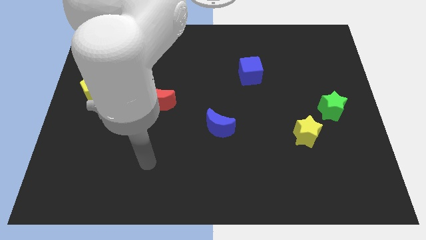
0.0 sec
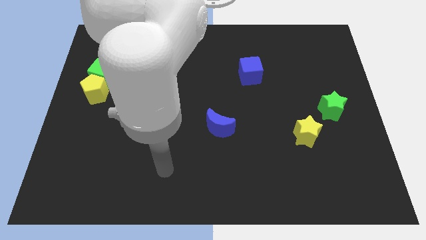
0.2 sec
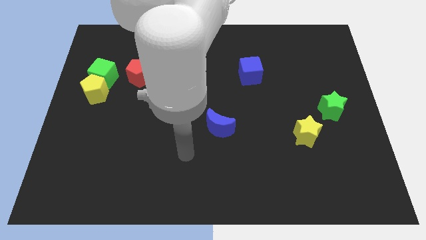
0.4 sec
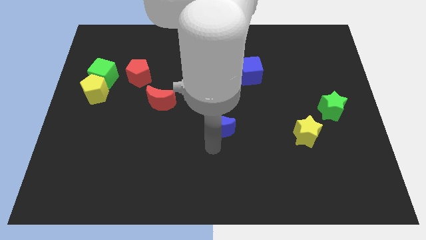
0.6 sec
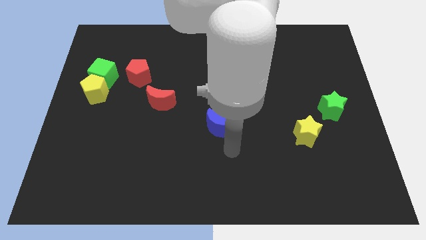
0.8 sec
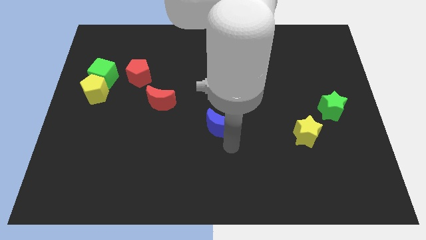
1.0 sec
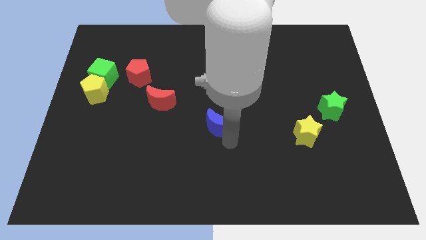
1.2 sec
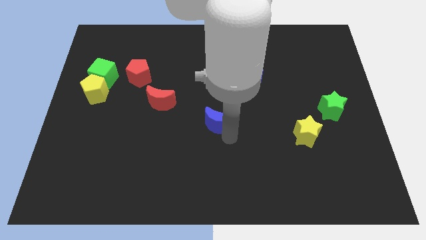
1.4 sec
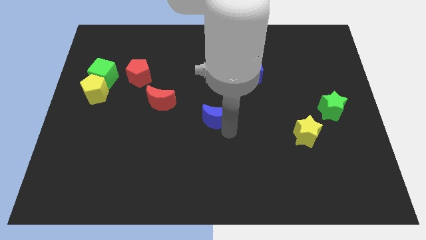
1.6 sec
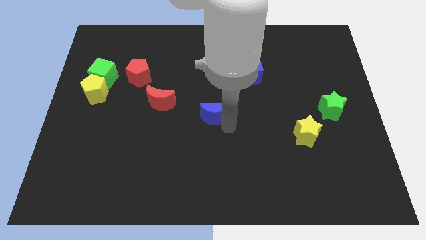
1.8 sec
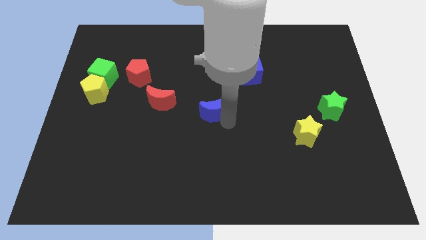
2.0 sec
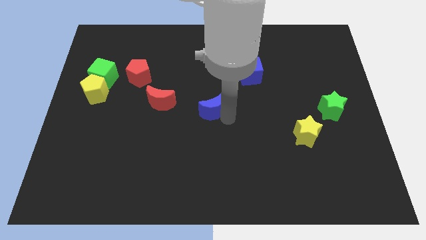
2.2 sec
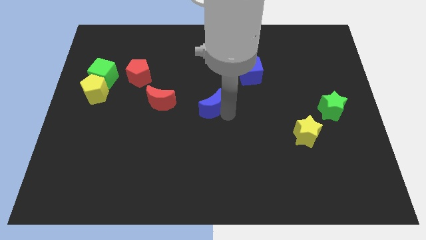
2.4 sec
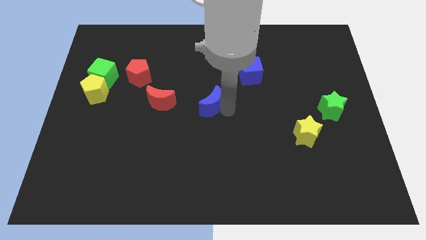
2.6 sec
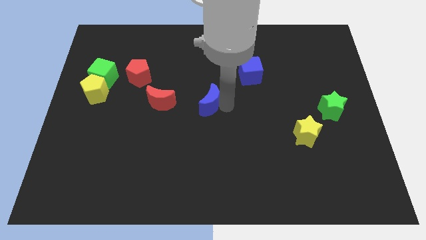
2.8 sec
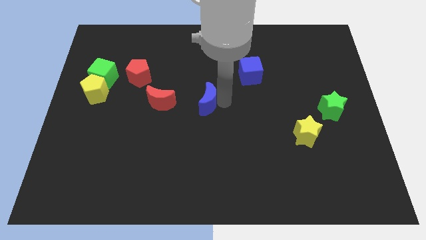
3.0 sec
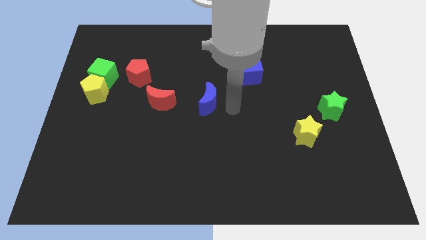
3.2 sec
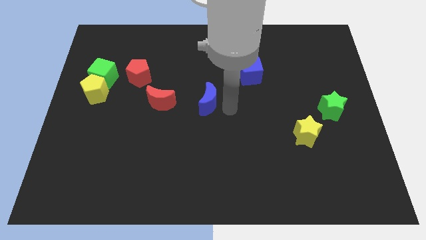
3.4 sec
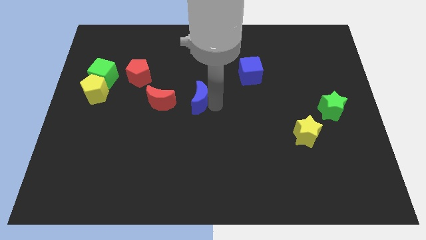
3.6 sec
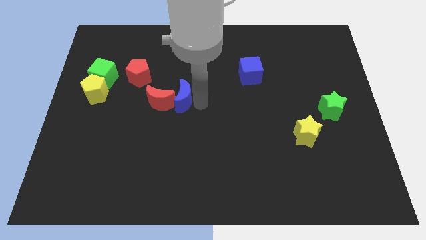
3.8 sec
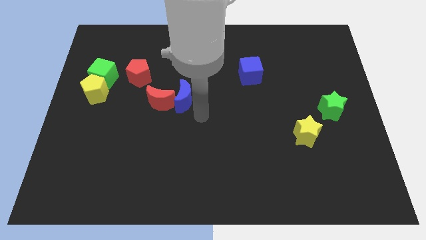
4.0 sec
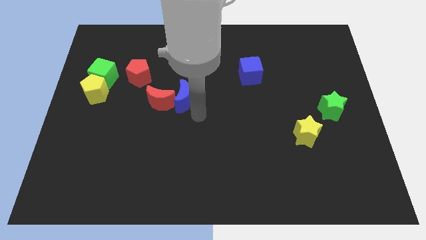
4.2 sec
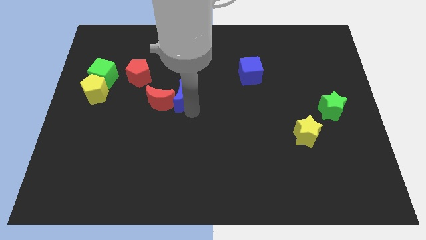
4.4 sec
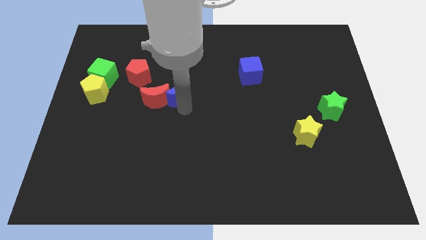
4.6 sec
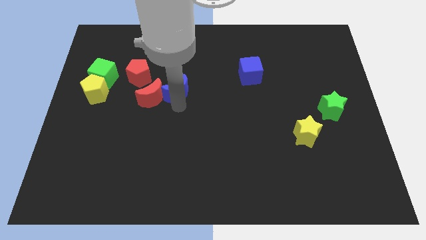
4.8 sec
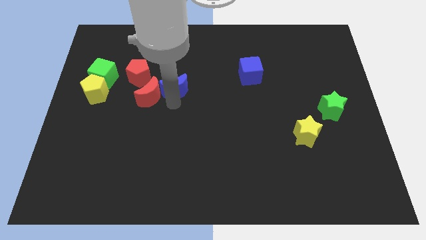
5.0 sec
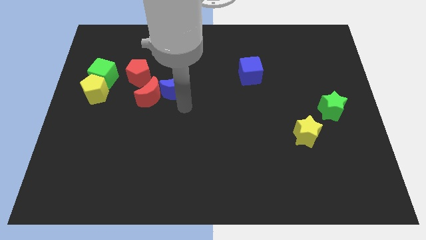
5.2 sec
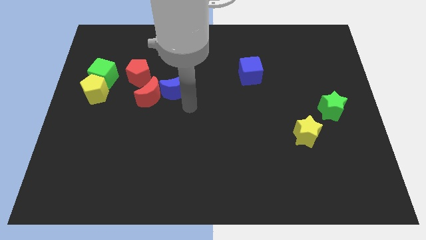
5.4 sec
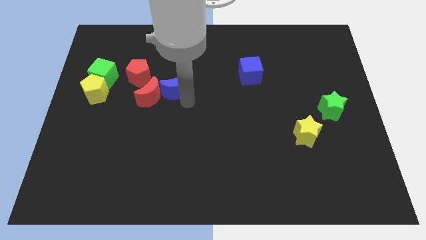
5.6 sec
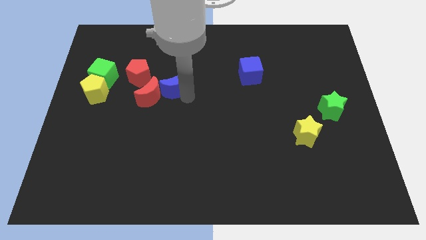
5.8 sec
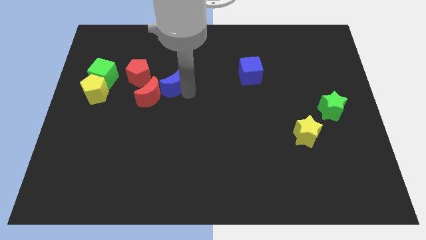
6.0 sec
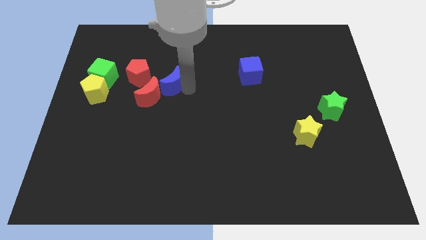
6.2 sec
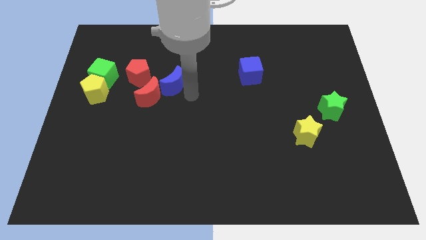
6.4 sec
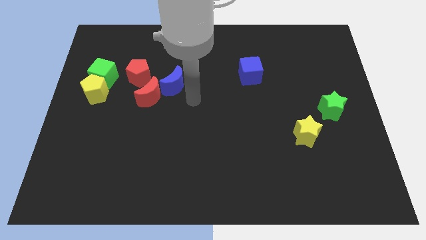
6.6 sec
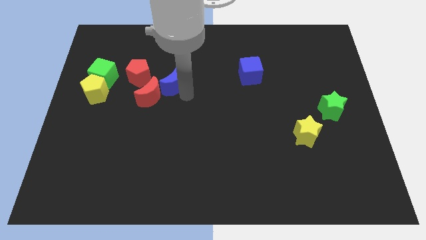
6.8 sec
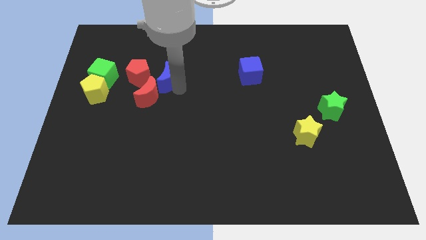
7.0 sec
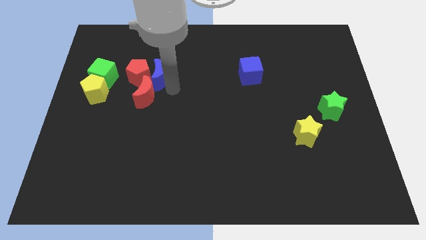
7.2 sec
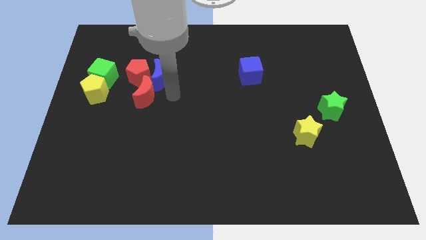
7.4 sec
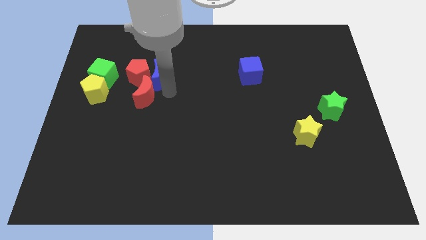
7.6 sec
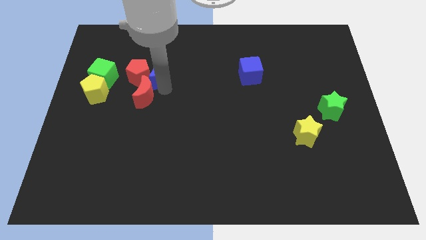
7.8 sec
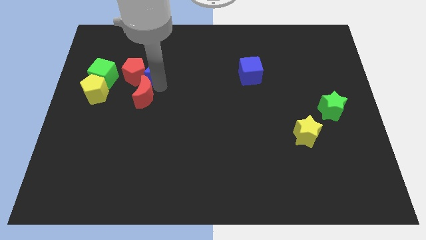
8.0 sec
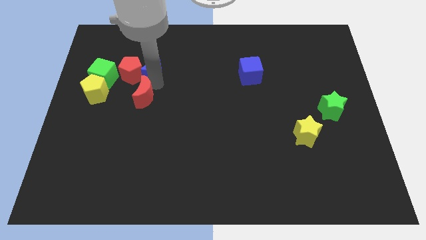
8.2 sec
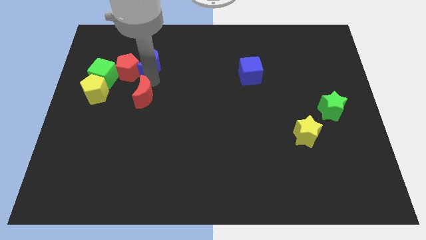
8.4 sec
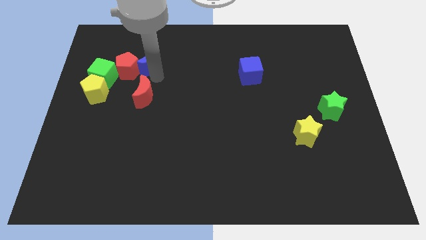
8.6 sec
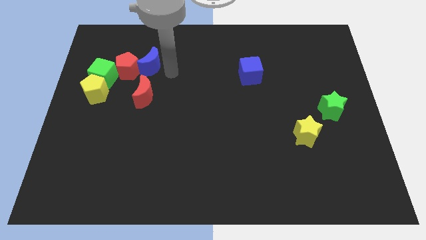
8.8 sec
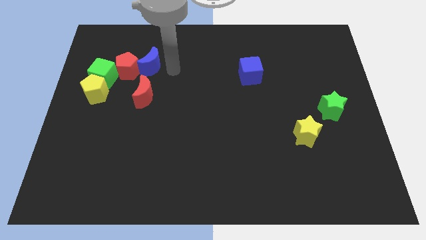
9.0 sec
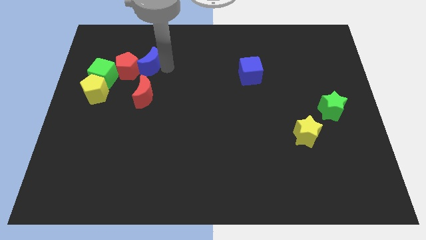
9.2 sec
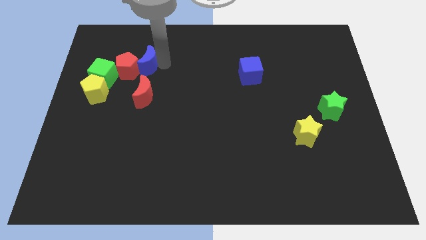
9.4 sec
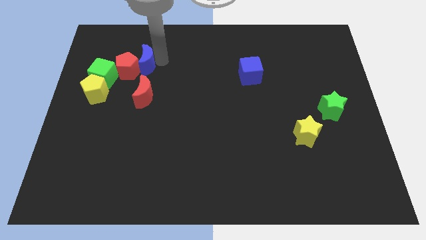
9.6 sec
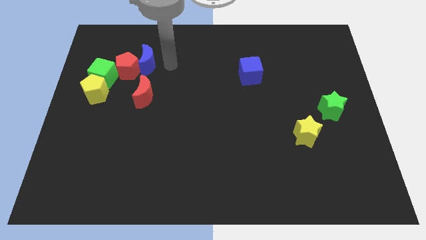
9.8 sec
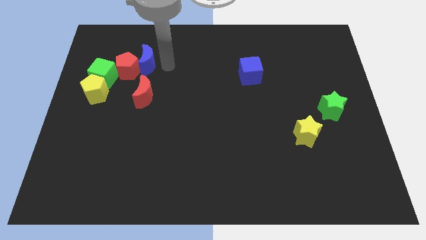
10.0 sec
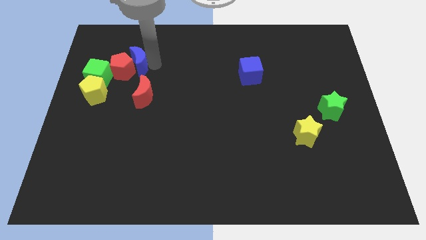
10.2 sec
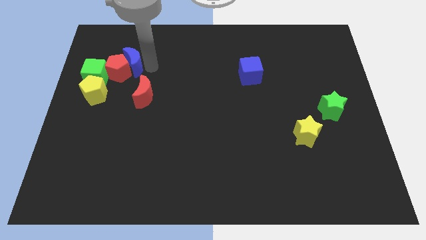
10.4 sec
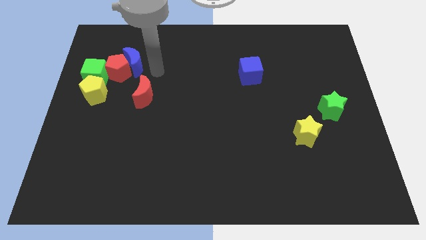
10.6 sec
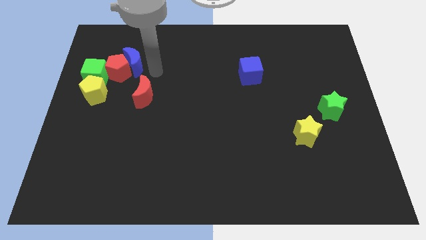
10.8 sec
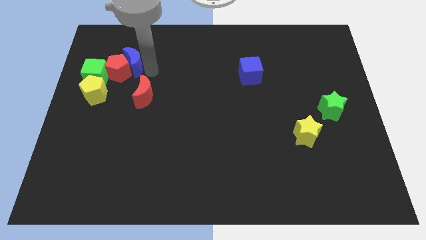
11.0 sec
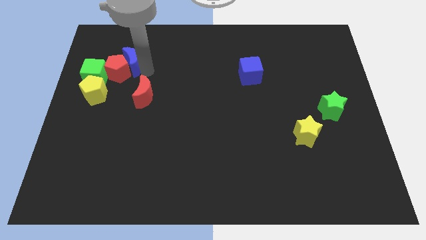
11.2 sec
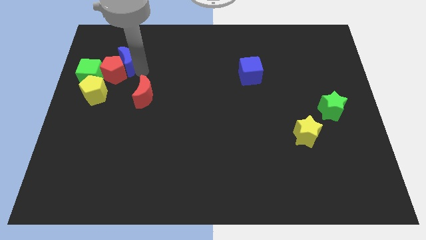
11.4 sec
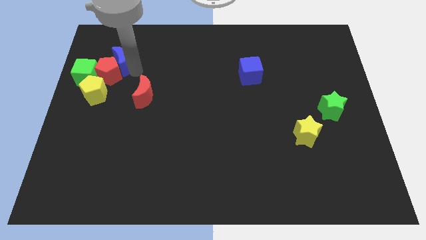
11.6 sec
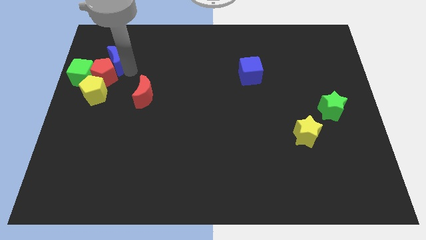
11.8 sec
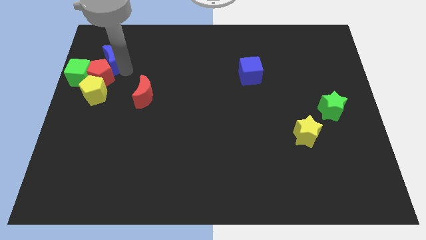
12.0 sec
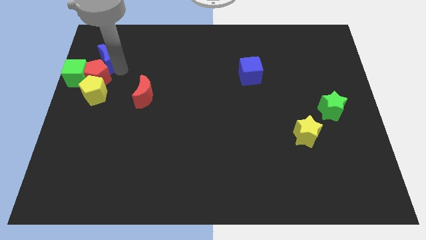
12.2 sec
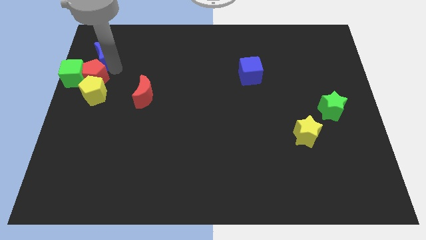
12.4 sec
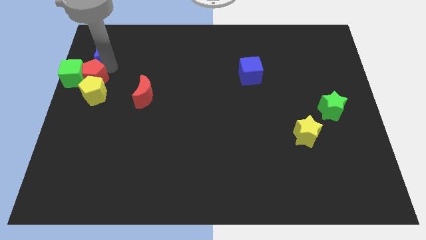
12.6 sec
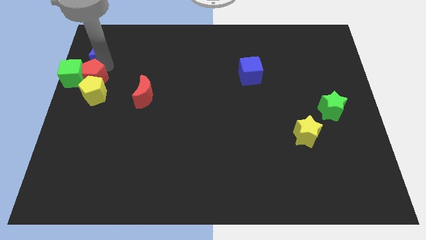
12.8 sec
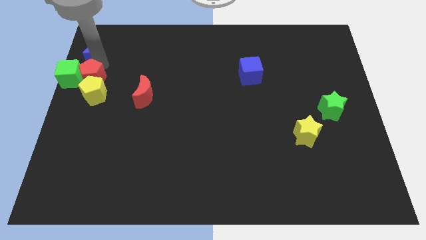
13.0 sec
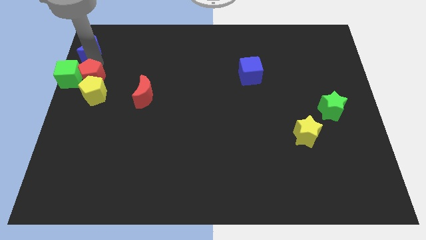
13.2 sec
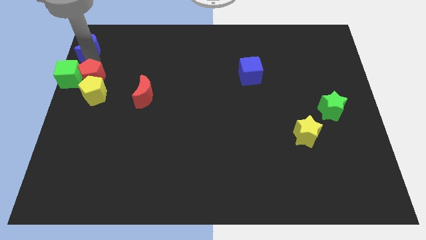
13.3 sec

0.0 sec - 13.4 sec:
push the blue moon to the top left of the board
